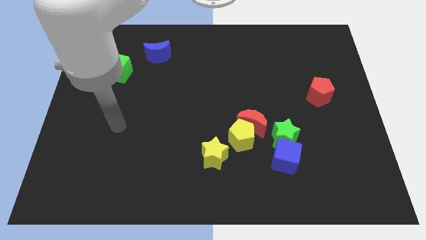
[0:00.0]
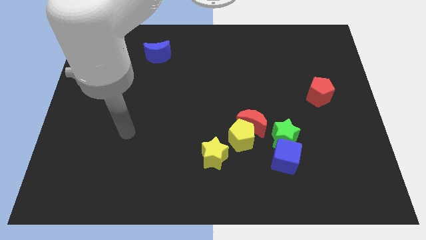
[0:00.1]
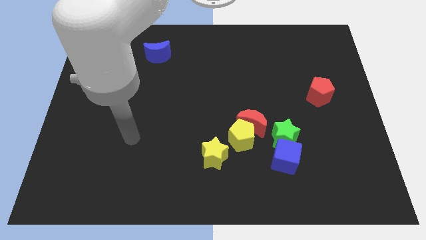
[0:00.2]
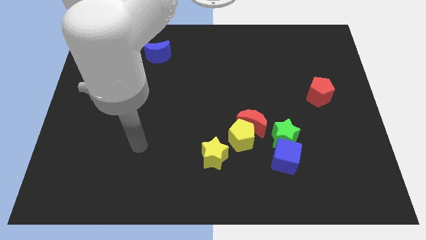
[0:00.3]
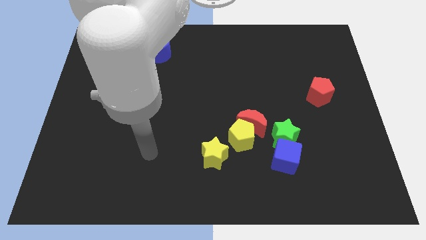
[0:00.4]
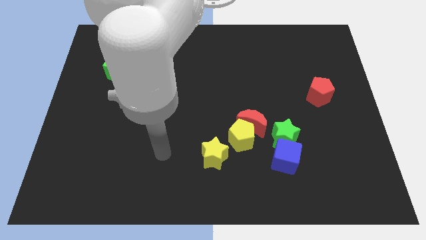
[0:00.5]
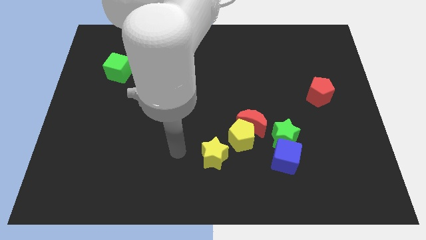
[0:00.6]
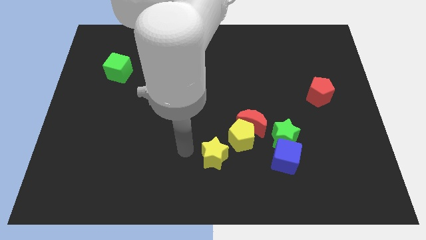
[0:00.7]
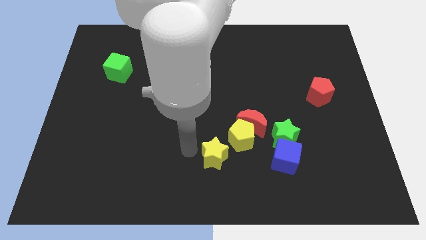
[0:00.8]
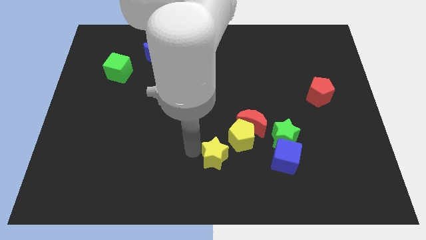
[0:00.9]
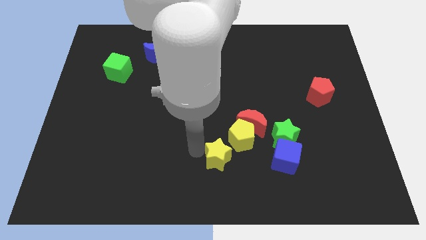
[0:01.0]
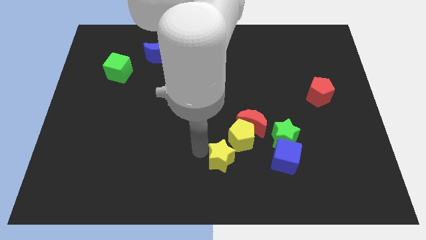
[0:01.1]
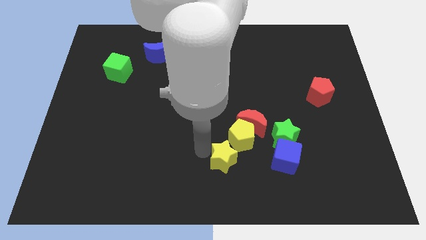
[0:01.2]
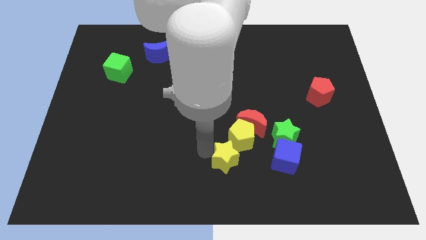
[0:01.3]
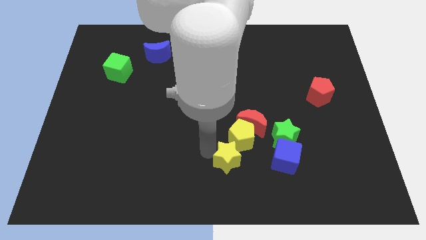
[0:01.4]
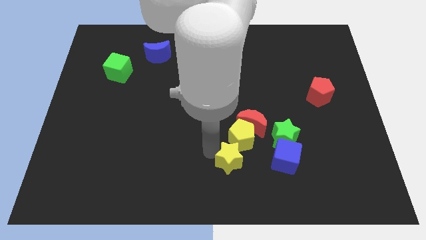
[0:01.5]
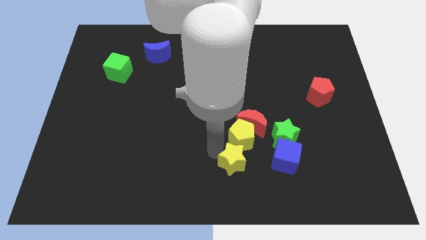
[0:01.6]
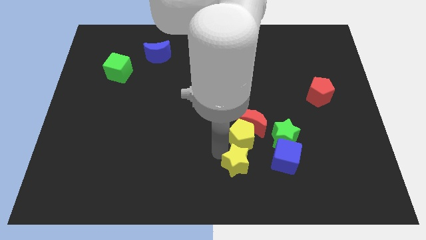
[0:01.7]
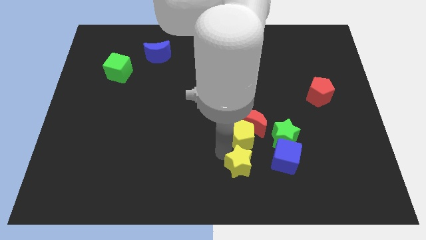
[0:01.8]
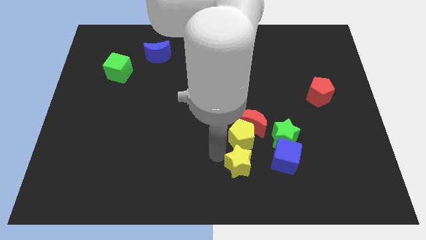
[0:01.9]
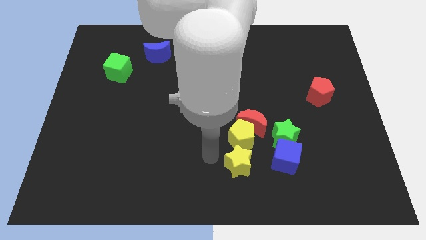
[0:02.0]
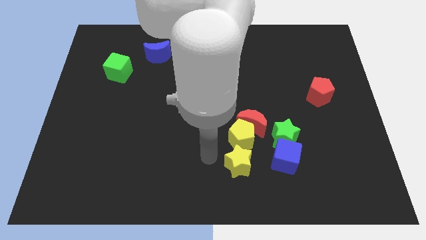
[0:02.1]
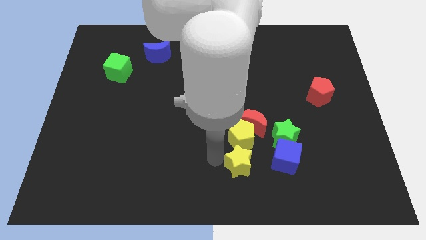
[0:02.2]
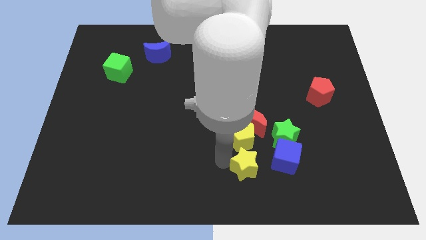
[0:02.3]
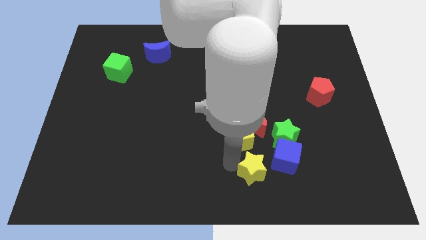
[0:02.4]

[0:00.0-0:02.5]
slightly move the yellow star to the right

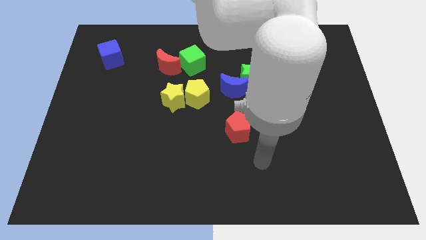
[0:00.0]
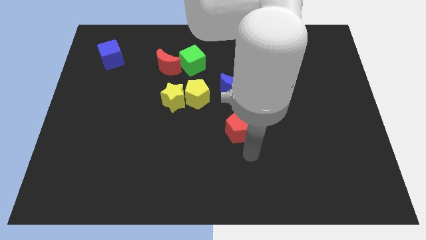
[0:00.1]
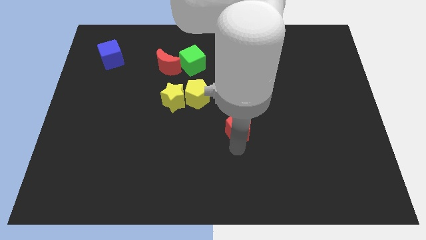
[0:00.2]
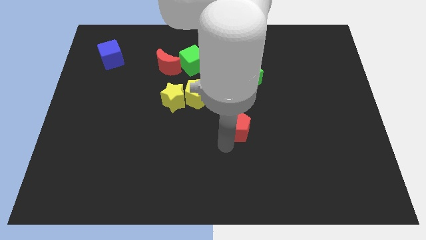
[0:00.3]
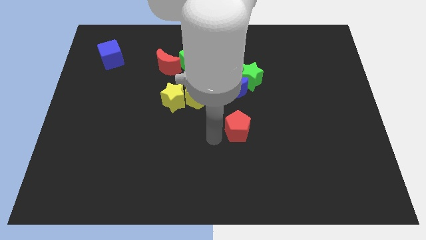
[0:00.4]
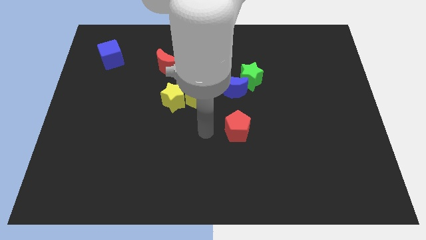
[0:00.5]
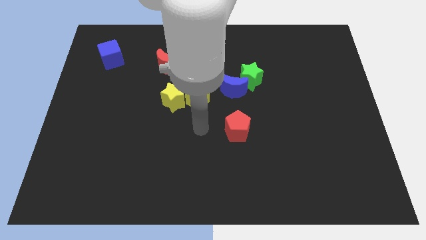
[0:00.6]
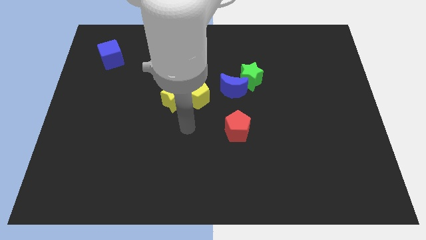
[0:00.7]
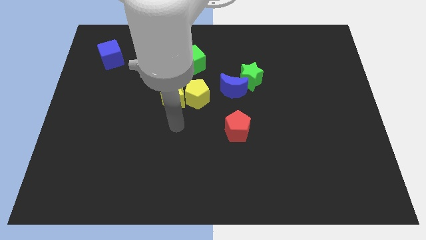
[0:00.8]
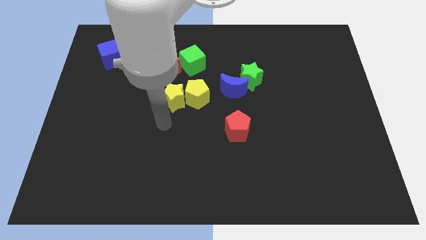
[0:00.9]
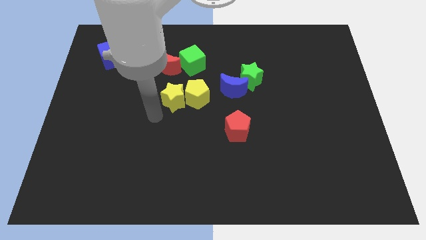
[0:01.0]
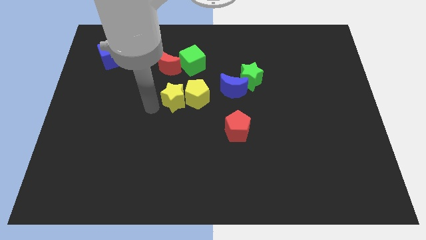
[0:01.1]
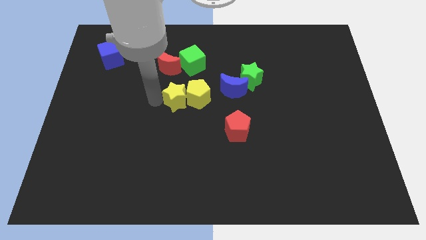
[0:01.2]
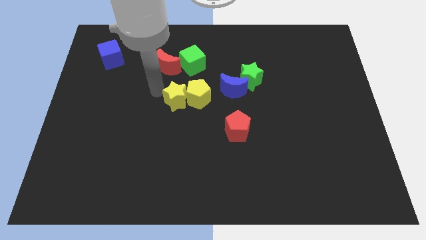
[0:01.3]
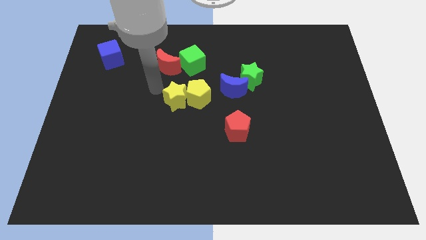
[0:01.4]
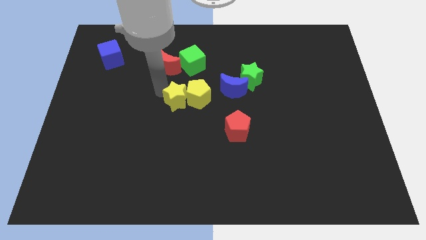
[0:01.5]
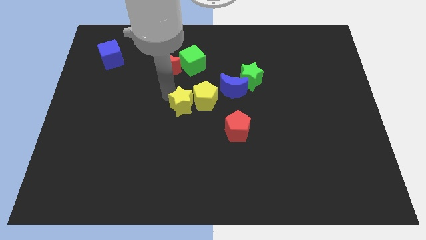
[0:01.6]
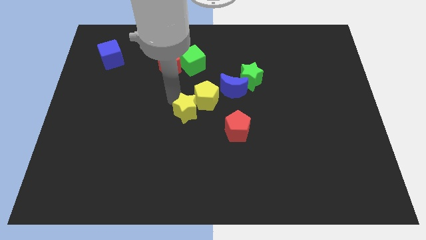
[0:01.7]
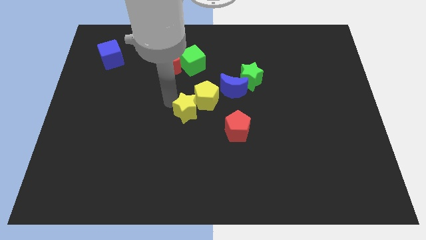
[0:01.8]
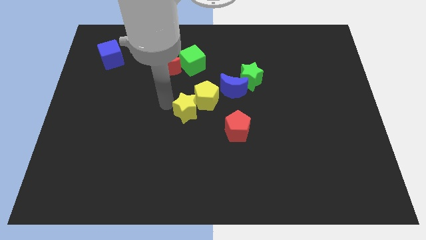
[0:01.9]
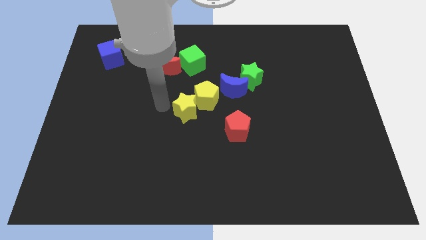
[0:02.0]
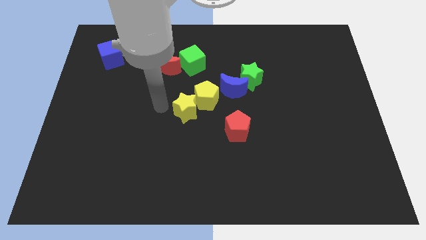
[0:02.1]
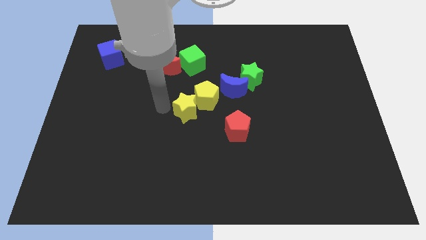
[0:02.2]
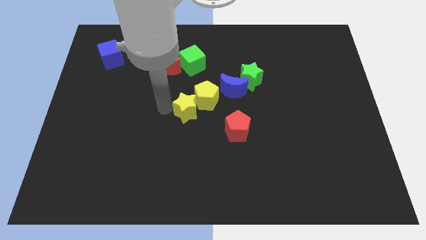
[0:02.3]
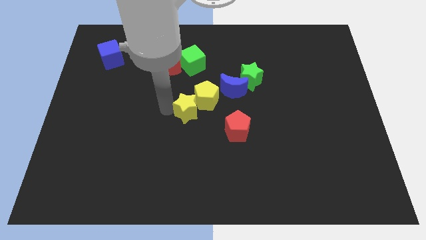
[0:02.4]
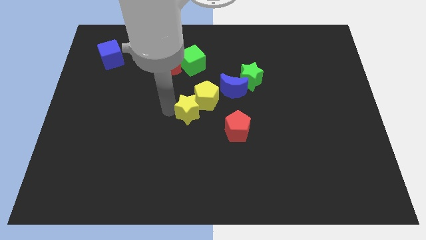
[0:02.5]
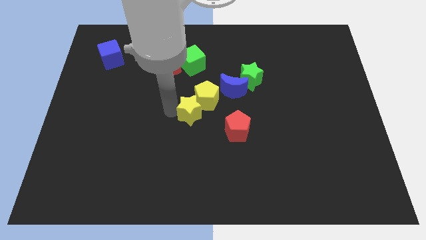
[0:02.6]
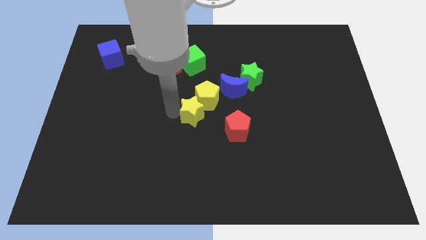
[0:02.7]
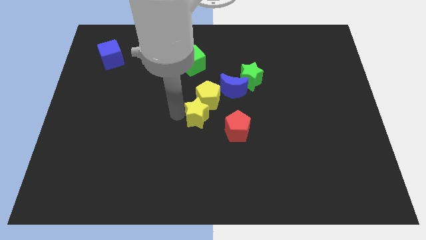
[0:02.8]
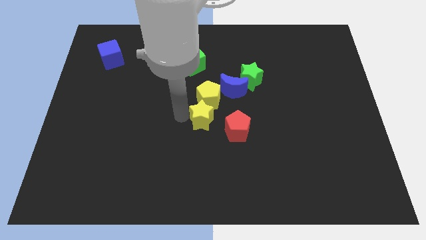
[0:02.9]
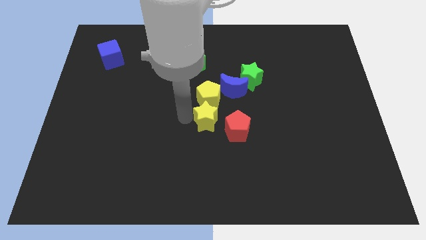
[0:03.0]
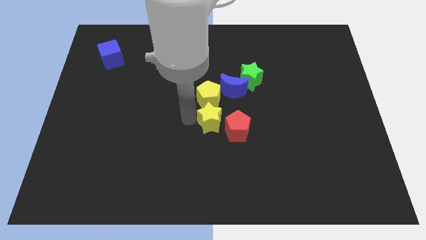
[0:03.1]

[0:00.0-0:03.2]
move the yellow star a bit to the right

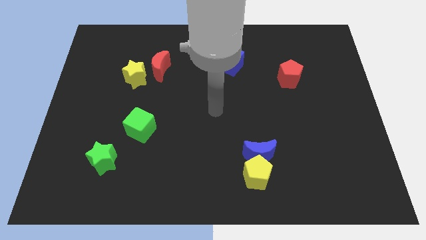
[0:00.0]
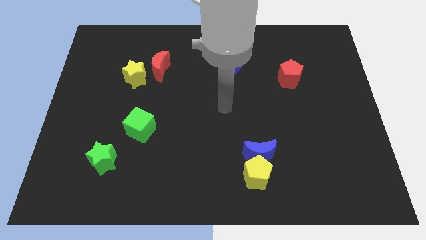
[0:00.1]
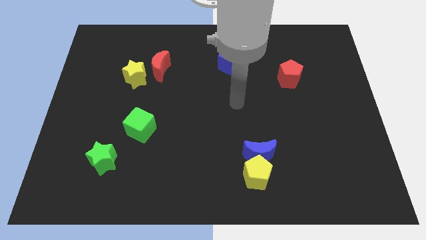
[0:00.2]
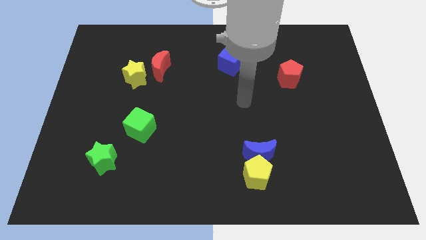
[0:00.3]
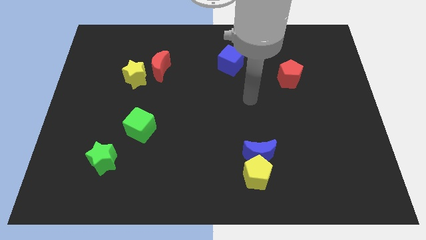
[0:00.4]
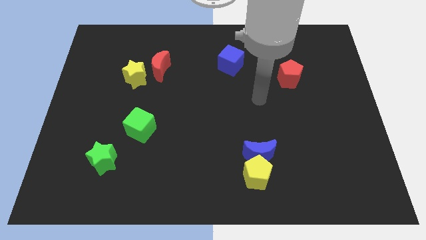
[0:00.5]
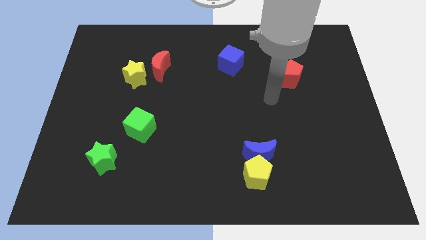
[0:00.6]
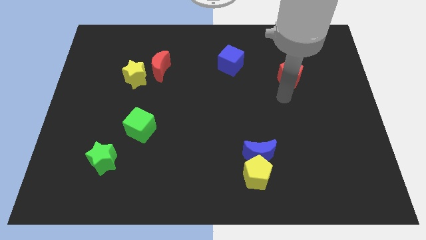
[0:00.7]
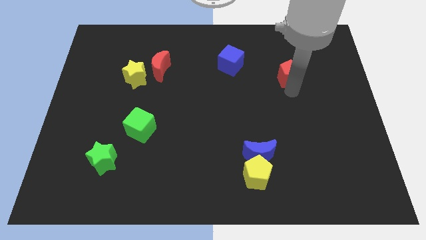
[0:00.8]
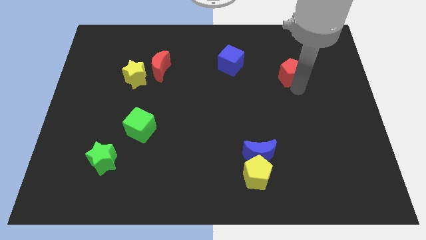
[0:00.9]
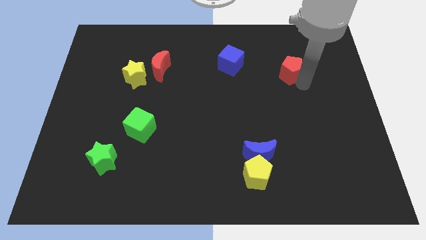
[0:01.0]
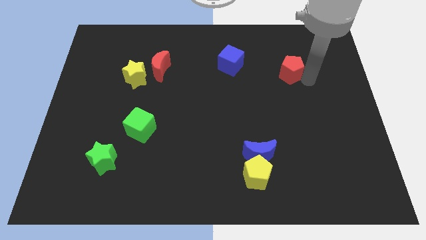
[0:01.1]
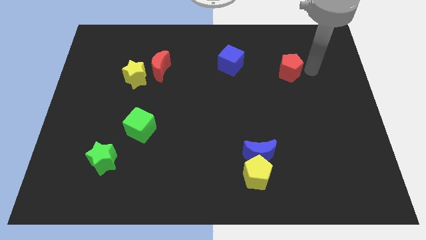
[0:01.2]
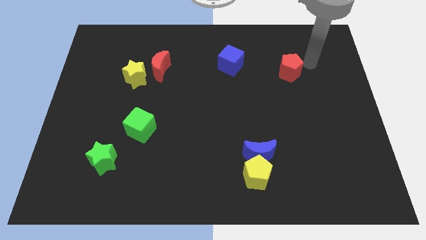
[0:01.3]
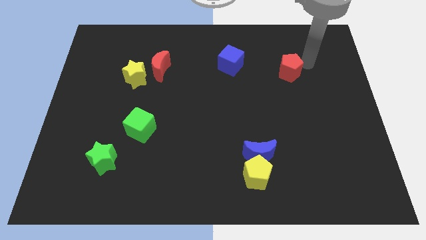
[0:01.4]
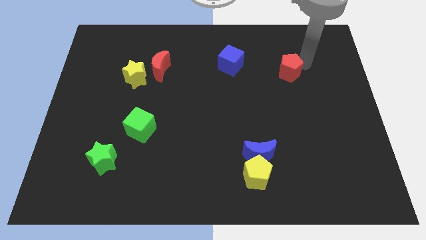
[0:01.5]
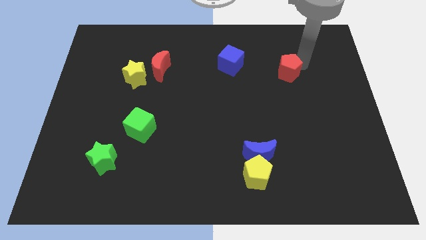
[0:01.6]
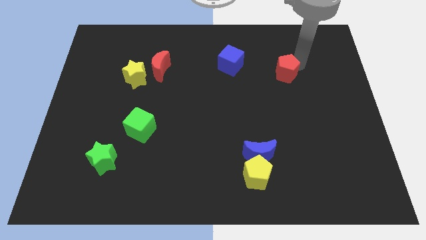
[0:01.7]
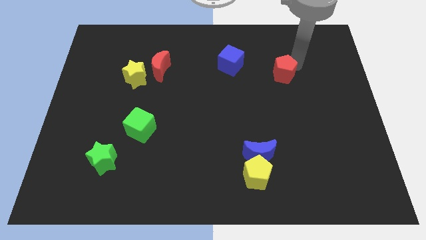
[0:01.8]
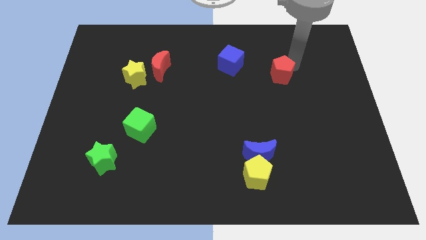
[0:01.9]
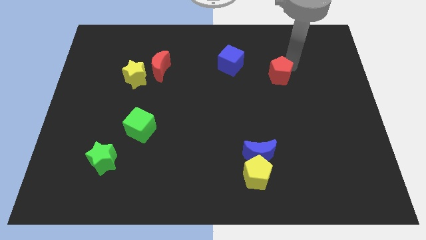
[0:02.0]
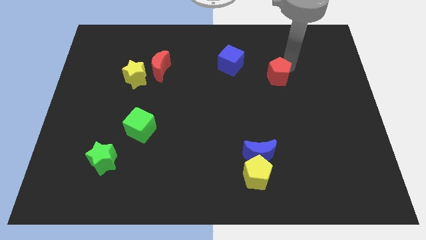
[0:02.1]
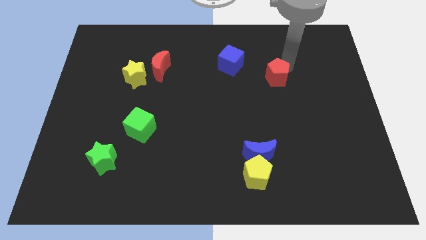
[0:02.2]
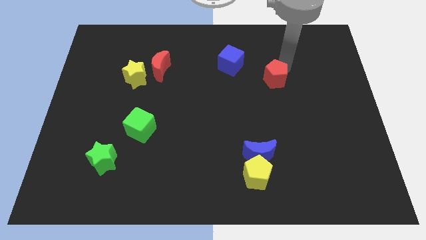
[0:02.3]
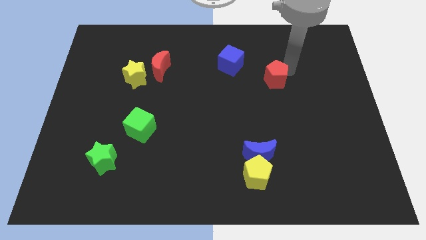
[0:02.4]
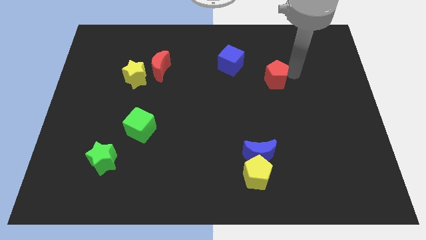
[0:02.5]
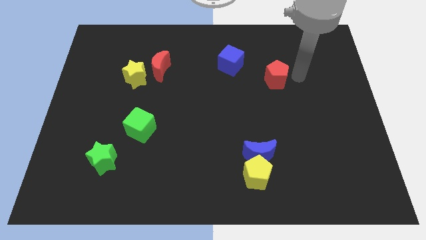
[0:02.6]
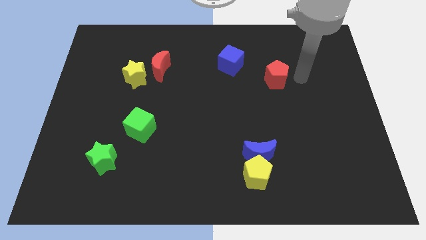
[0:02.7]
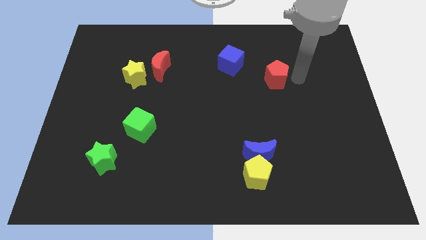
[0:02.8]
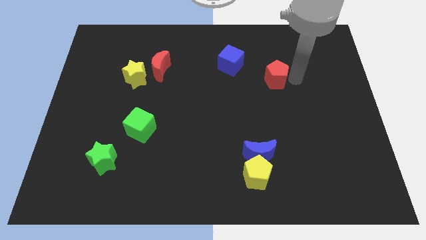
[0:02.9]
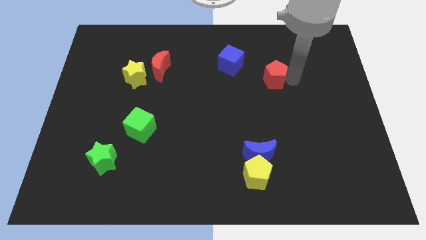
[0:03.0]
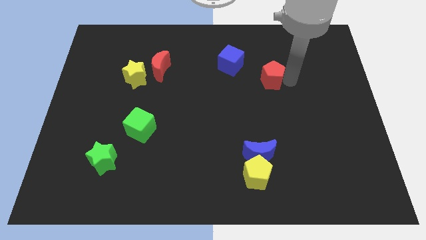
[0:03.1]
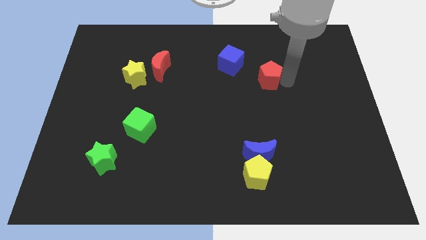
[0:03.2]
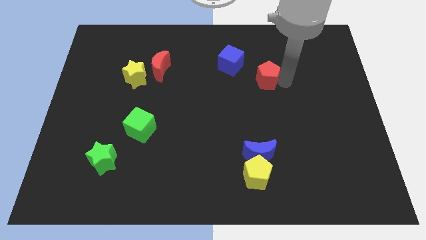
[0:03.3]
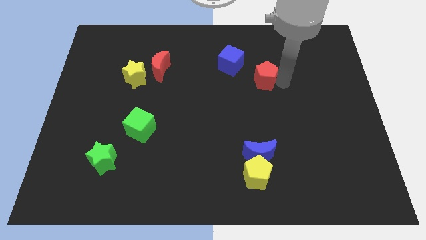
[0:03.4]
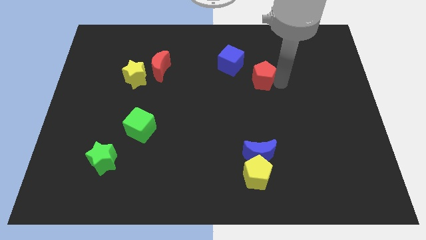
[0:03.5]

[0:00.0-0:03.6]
push the red pentagon a little bit to the left
